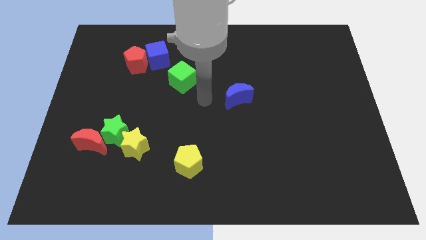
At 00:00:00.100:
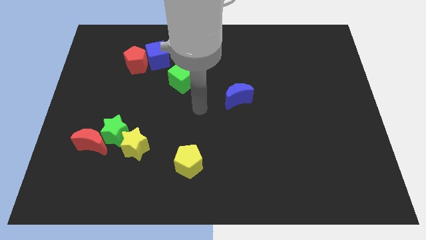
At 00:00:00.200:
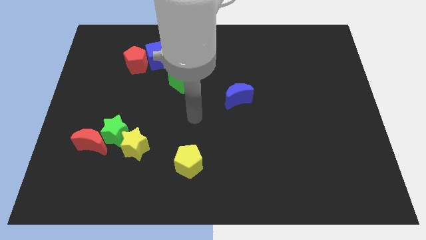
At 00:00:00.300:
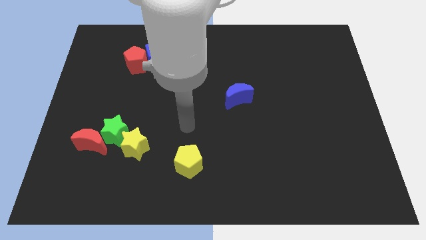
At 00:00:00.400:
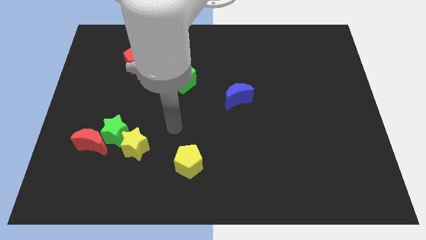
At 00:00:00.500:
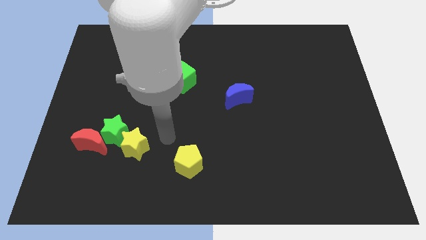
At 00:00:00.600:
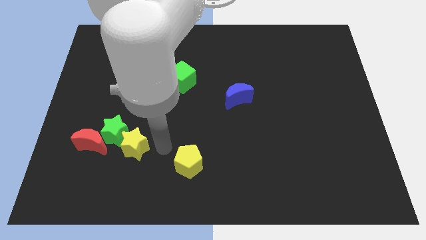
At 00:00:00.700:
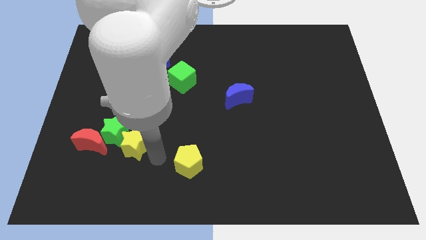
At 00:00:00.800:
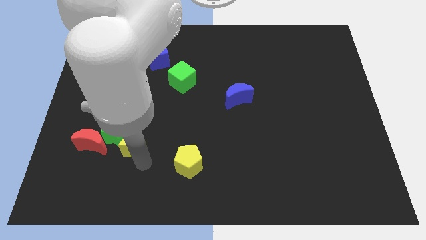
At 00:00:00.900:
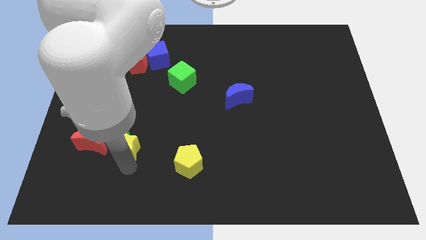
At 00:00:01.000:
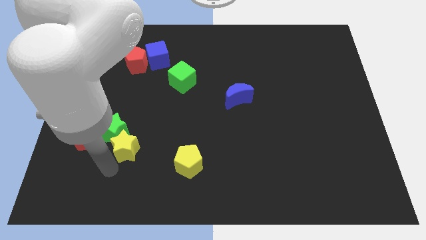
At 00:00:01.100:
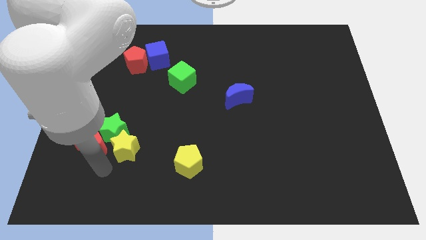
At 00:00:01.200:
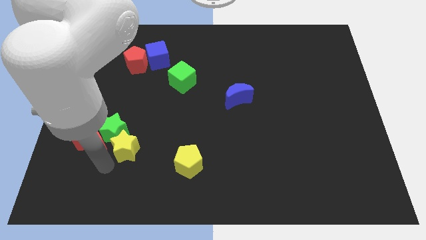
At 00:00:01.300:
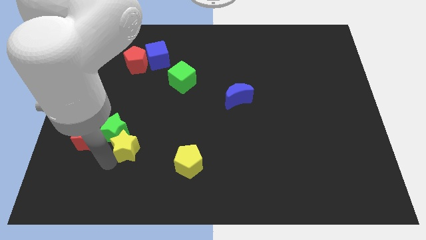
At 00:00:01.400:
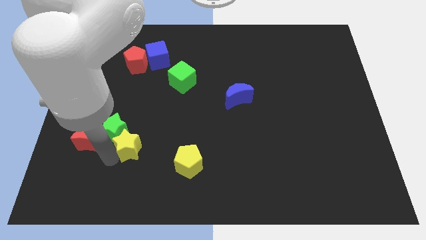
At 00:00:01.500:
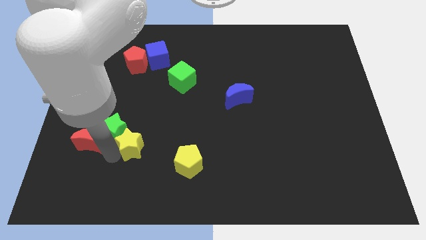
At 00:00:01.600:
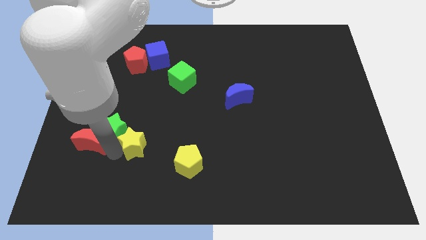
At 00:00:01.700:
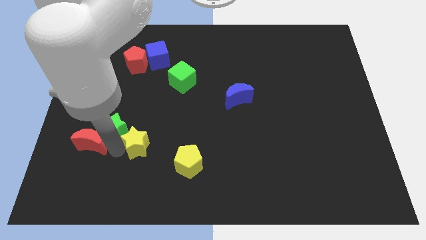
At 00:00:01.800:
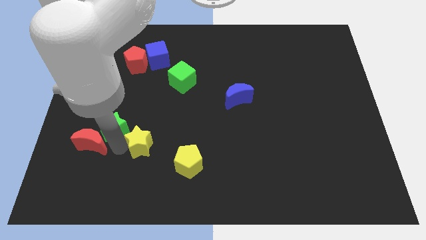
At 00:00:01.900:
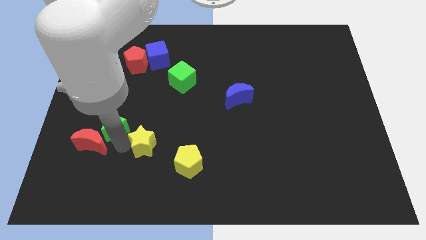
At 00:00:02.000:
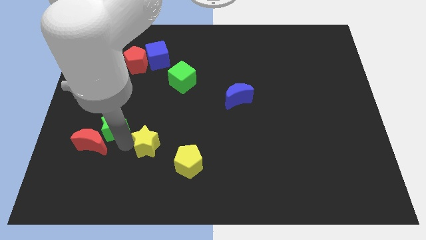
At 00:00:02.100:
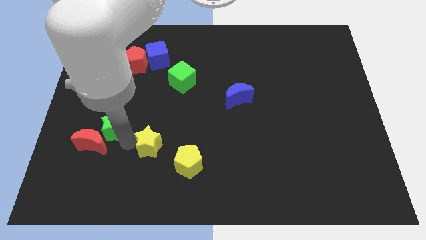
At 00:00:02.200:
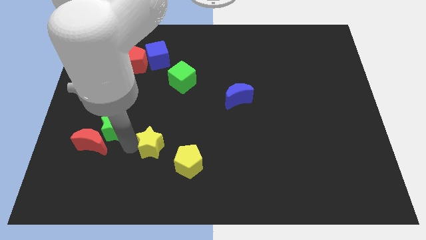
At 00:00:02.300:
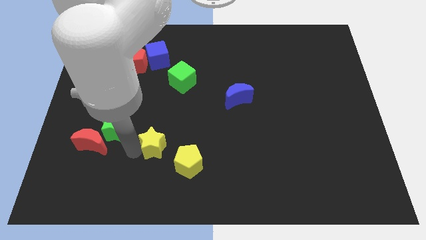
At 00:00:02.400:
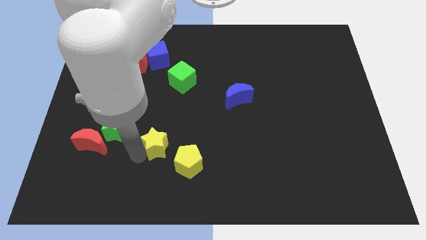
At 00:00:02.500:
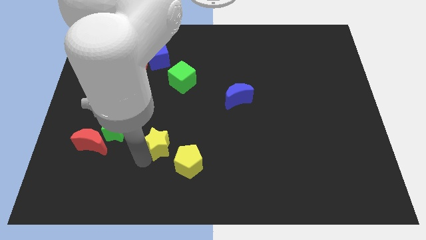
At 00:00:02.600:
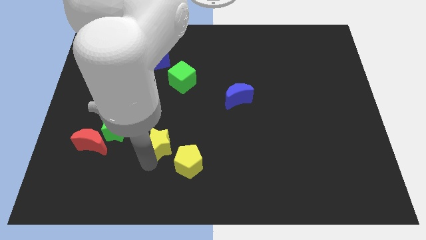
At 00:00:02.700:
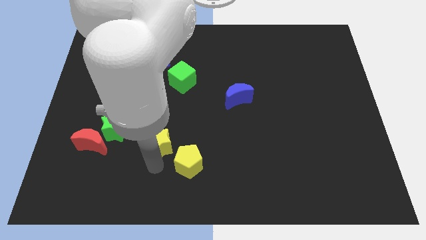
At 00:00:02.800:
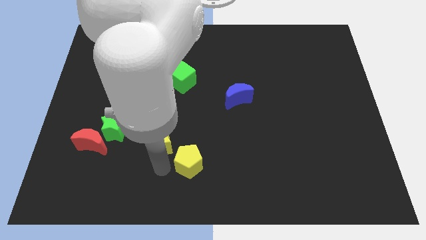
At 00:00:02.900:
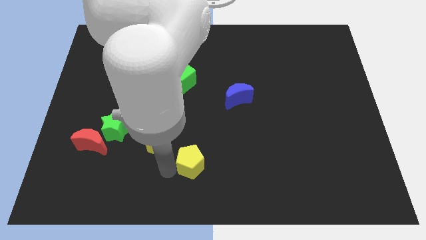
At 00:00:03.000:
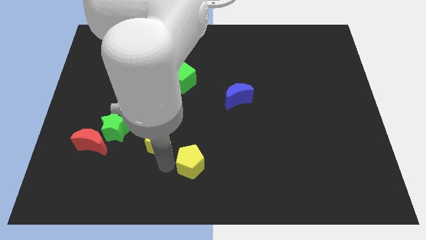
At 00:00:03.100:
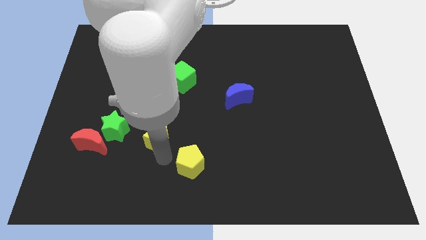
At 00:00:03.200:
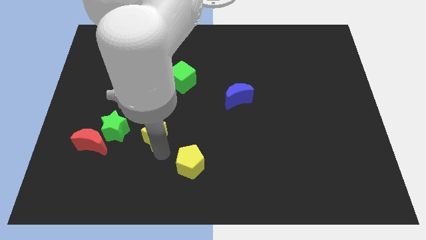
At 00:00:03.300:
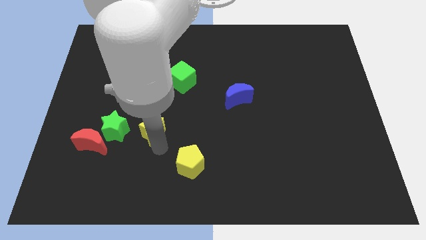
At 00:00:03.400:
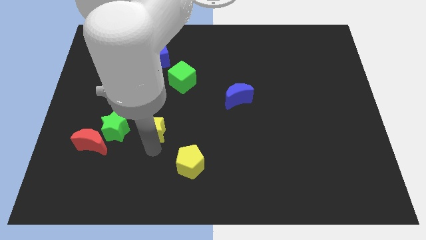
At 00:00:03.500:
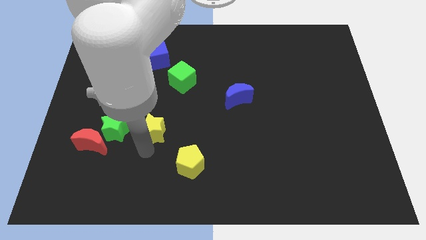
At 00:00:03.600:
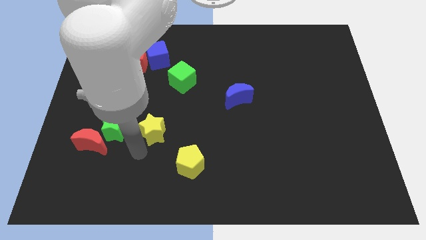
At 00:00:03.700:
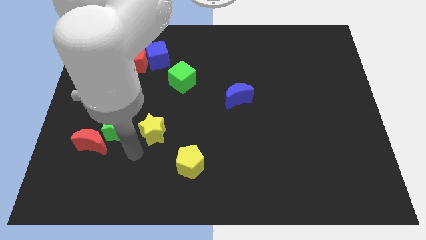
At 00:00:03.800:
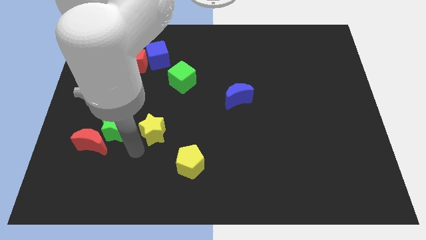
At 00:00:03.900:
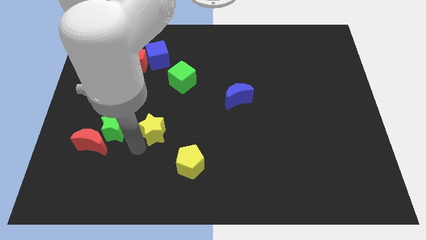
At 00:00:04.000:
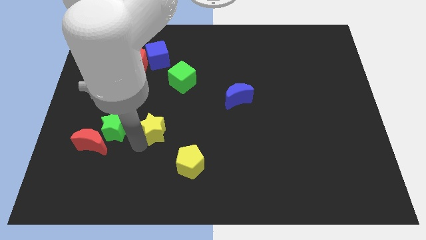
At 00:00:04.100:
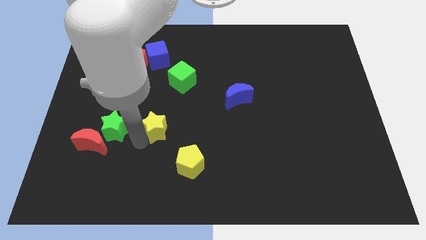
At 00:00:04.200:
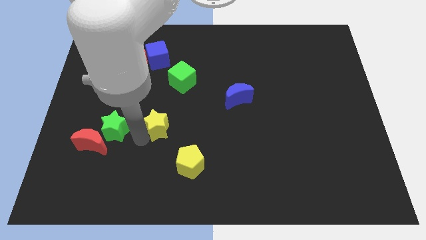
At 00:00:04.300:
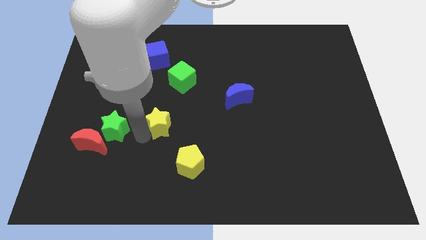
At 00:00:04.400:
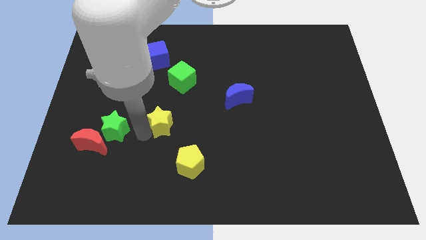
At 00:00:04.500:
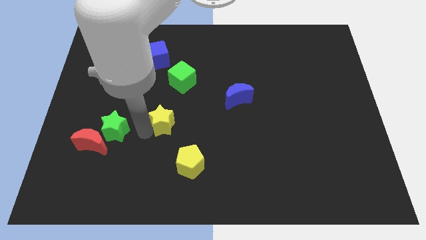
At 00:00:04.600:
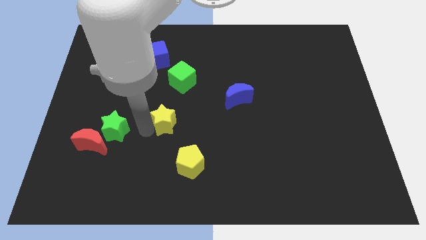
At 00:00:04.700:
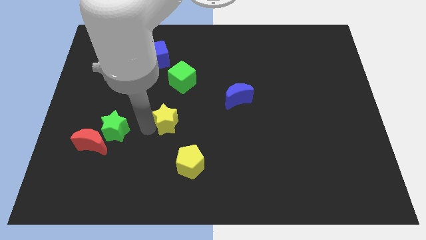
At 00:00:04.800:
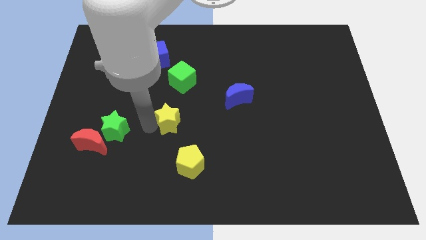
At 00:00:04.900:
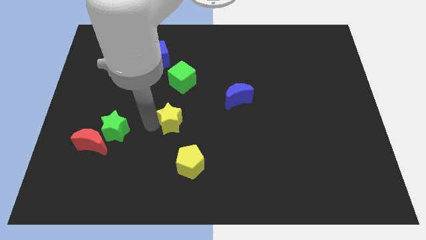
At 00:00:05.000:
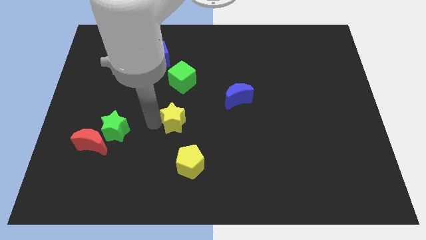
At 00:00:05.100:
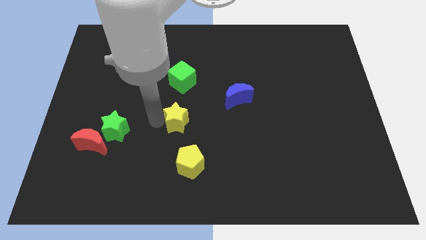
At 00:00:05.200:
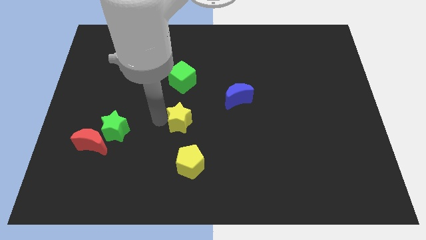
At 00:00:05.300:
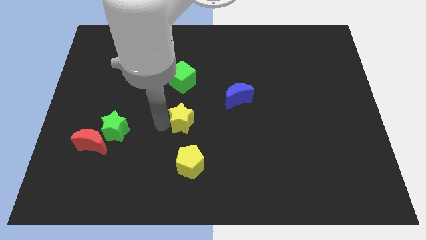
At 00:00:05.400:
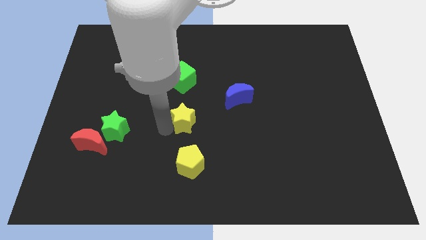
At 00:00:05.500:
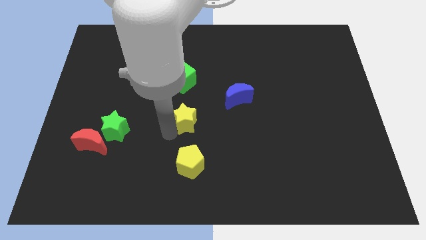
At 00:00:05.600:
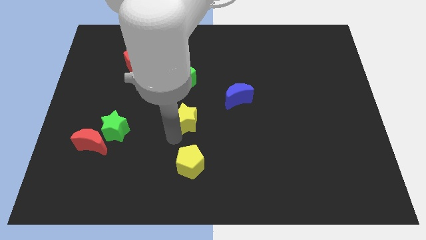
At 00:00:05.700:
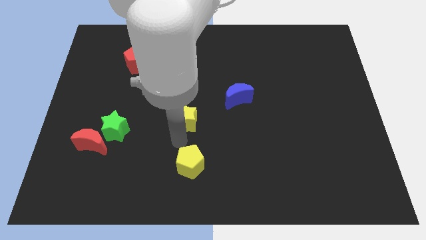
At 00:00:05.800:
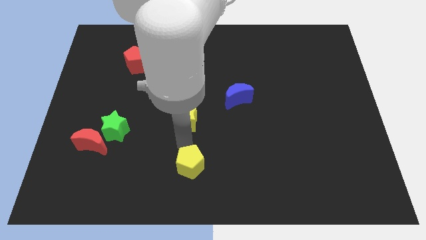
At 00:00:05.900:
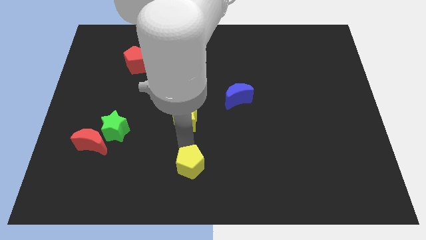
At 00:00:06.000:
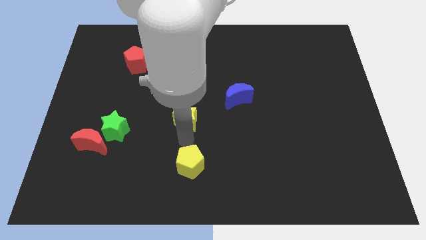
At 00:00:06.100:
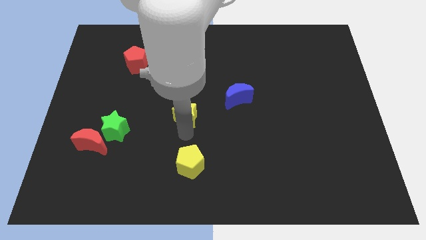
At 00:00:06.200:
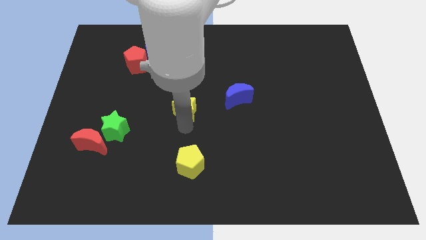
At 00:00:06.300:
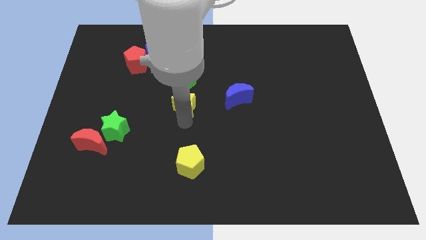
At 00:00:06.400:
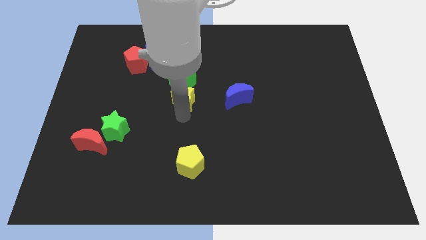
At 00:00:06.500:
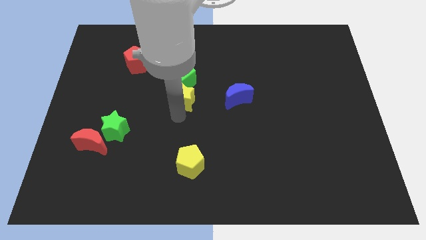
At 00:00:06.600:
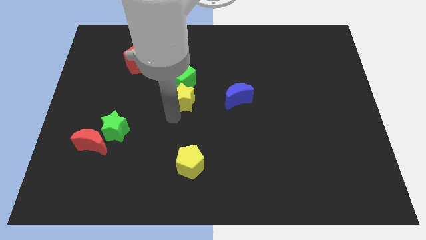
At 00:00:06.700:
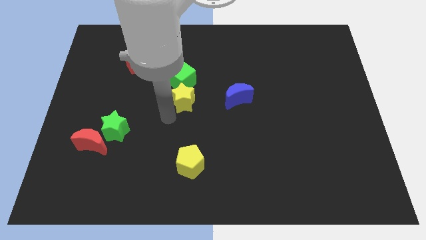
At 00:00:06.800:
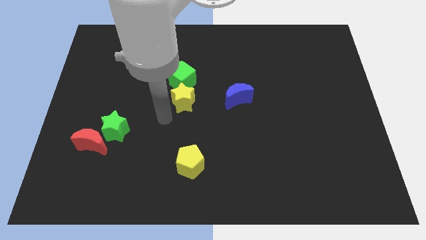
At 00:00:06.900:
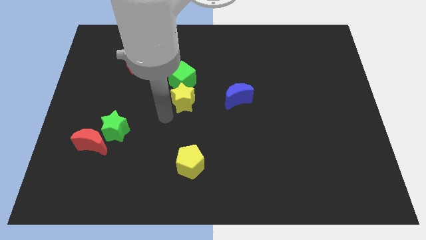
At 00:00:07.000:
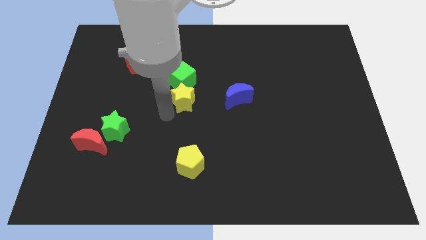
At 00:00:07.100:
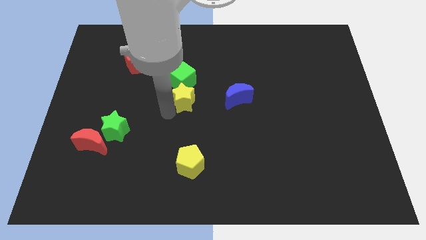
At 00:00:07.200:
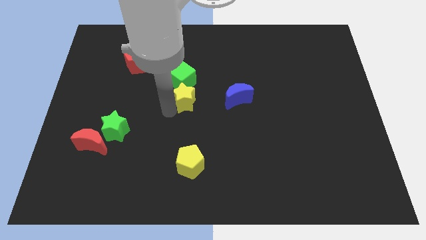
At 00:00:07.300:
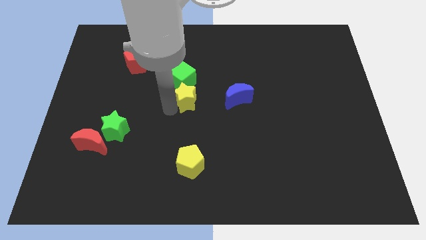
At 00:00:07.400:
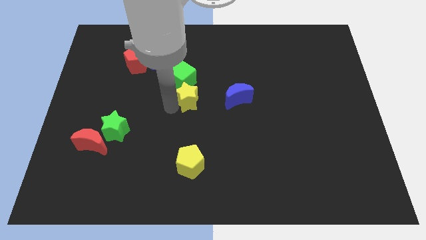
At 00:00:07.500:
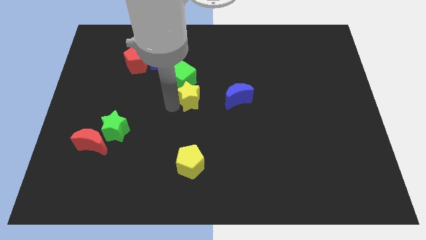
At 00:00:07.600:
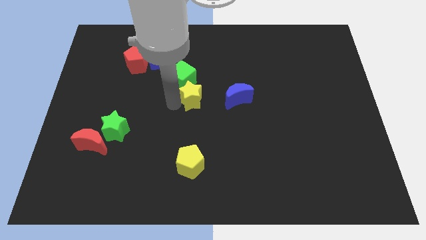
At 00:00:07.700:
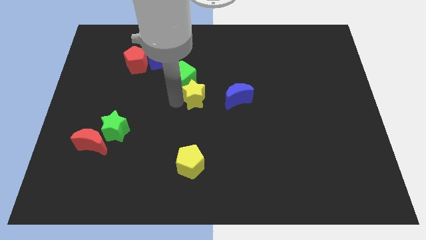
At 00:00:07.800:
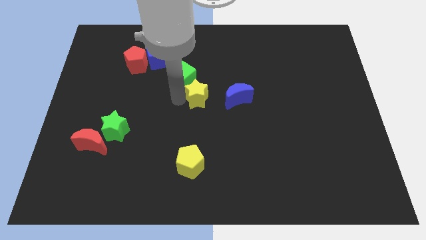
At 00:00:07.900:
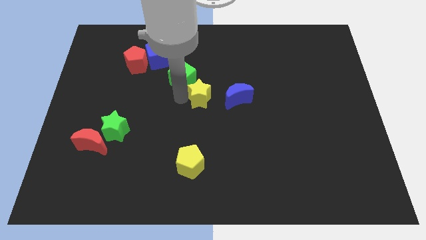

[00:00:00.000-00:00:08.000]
push the yellow star up and right
